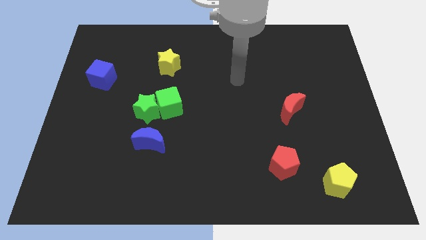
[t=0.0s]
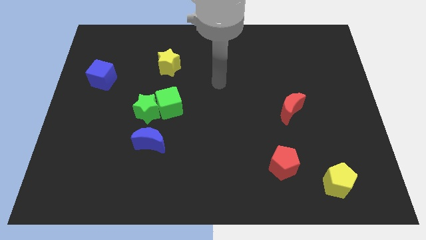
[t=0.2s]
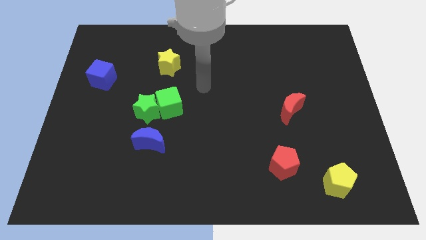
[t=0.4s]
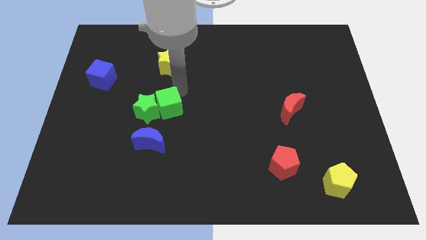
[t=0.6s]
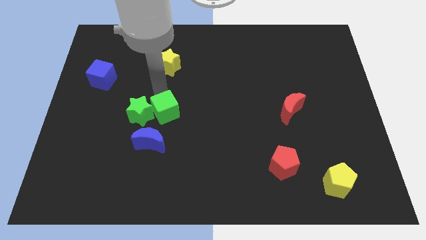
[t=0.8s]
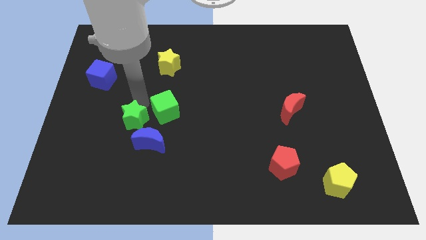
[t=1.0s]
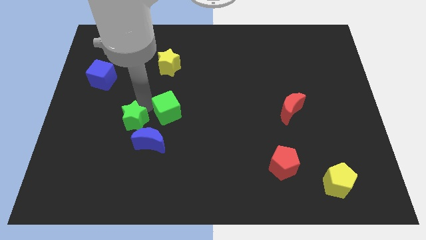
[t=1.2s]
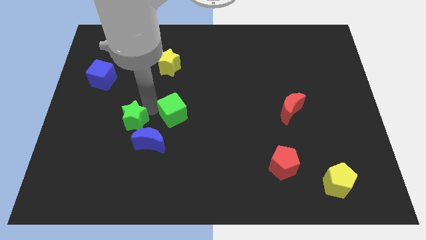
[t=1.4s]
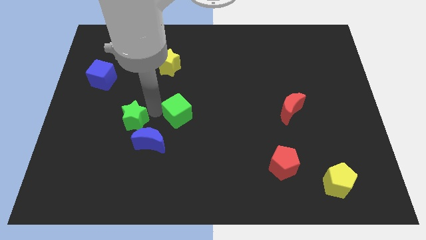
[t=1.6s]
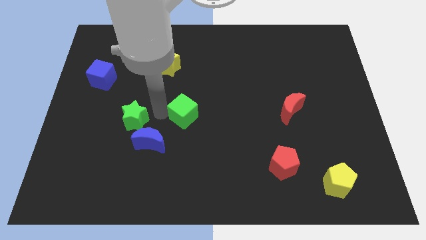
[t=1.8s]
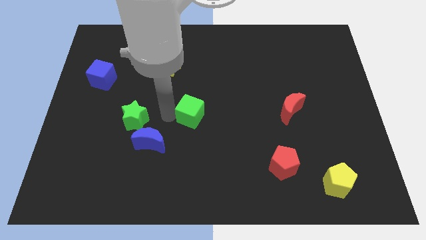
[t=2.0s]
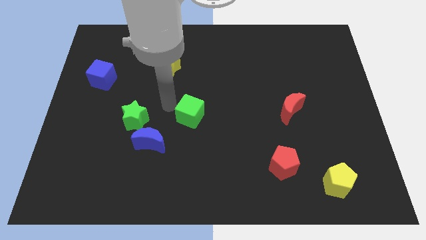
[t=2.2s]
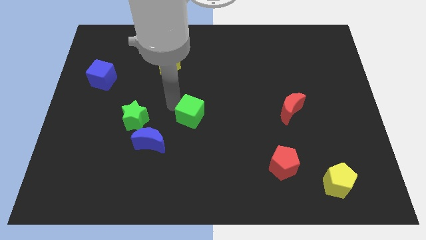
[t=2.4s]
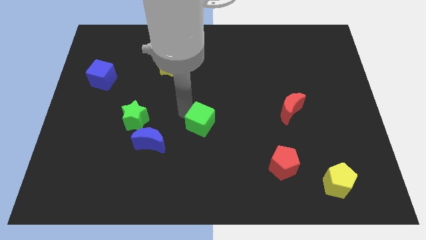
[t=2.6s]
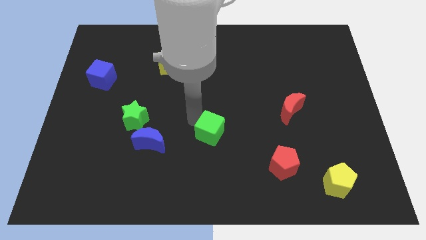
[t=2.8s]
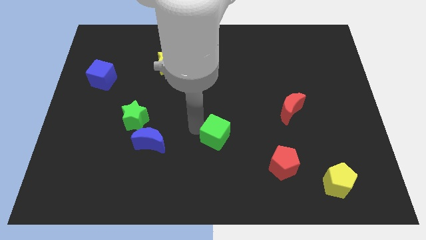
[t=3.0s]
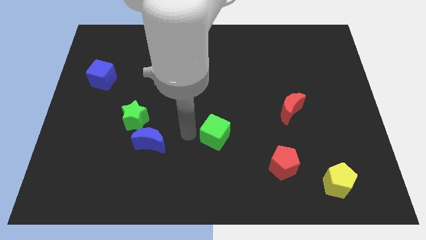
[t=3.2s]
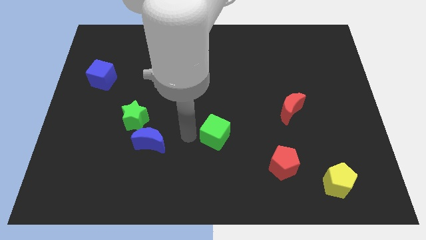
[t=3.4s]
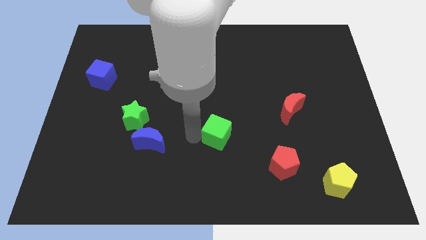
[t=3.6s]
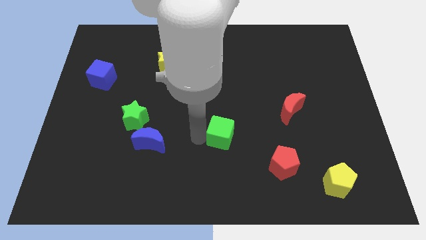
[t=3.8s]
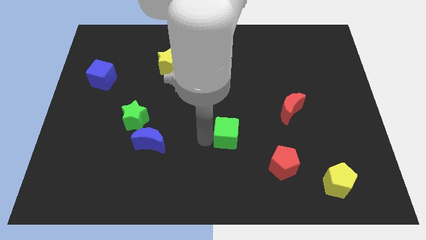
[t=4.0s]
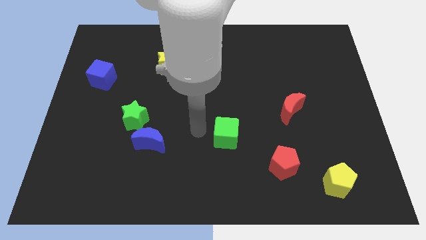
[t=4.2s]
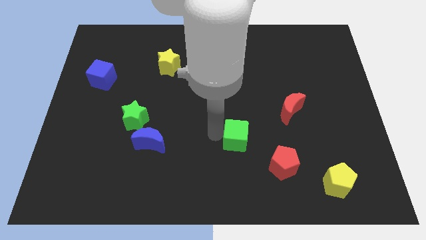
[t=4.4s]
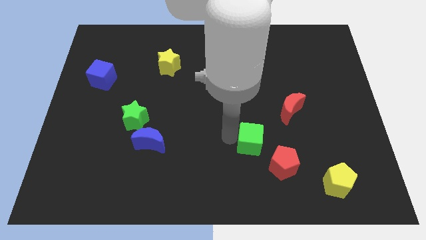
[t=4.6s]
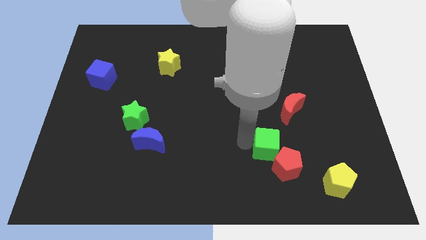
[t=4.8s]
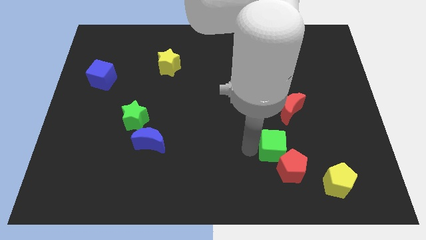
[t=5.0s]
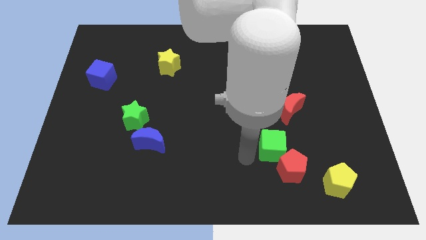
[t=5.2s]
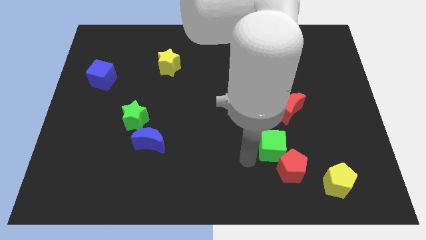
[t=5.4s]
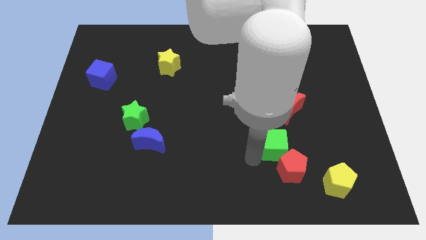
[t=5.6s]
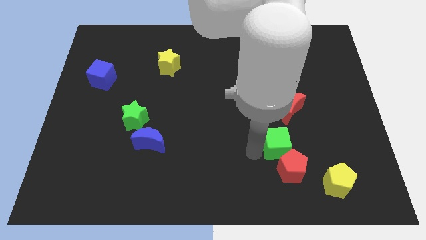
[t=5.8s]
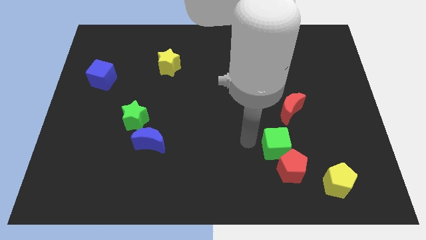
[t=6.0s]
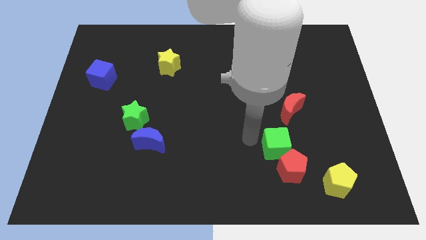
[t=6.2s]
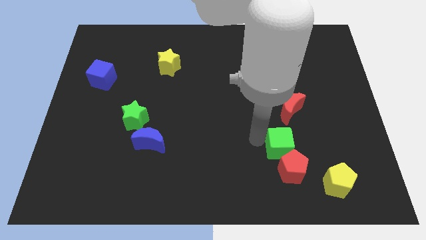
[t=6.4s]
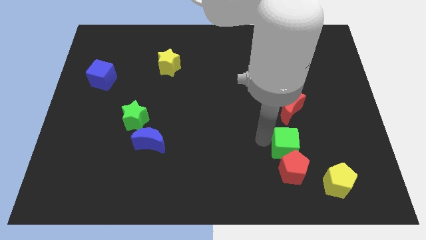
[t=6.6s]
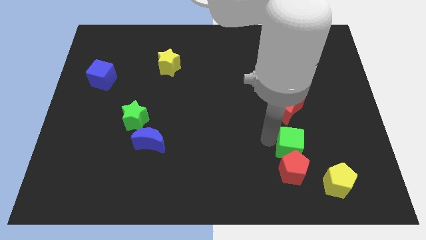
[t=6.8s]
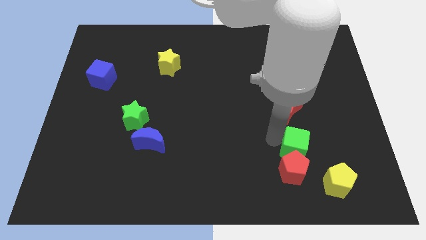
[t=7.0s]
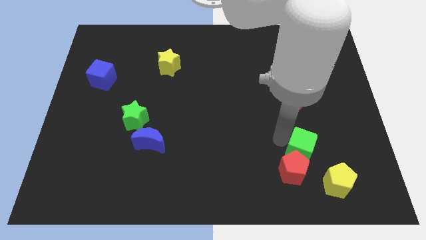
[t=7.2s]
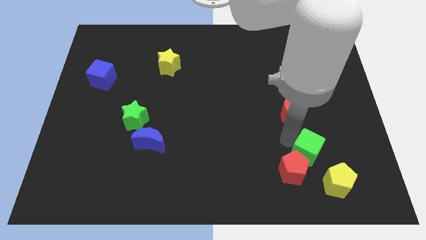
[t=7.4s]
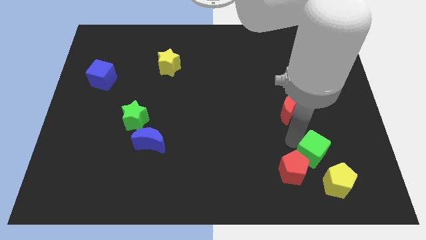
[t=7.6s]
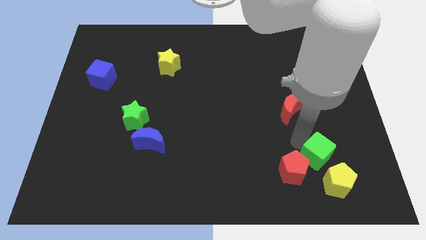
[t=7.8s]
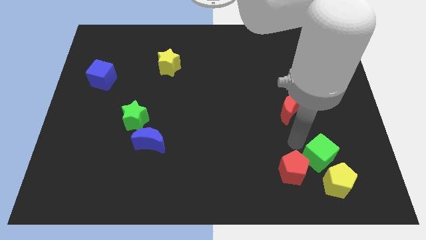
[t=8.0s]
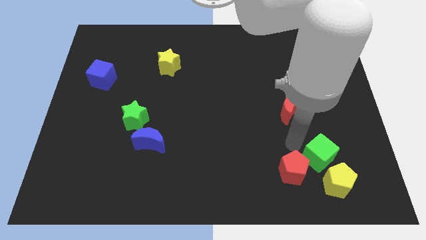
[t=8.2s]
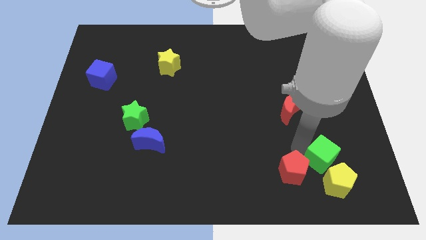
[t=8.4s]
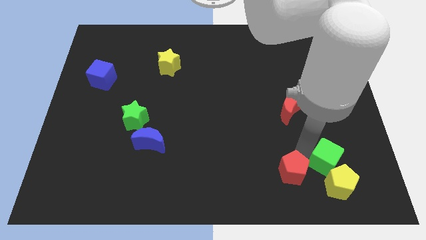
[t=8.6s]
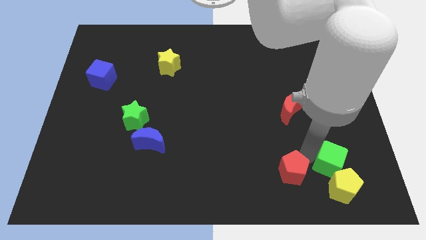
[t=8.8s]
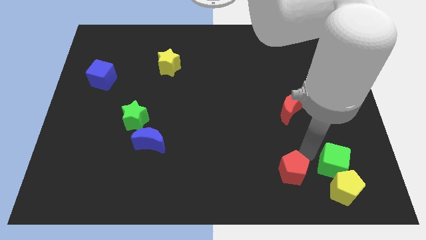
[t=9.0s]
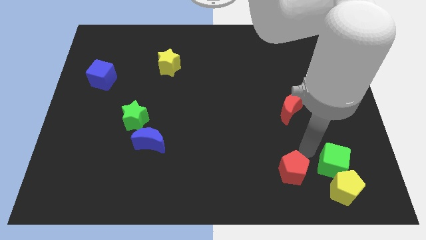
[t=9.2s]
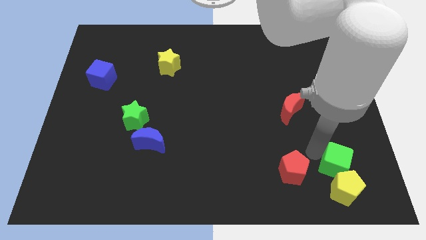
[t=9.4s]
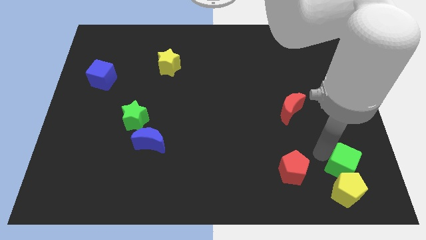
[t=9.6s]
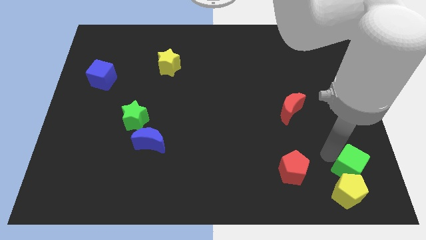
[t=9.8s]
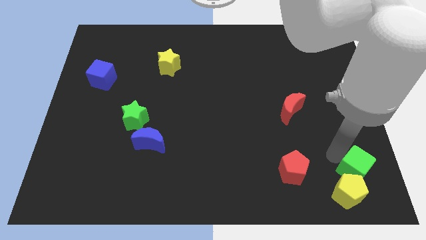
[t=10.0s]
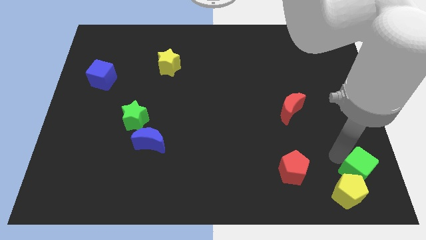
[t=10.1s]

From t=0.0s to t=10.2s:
slide the green cube to the bottom right of the board

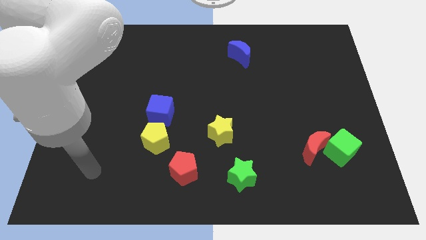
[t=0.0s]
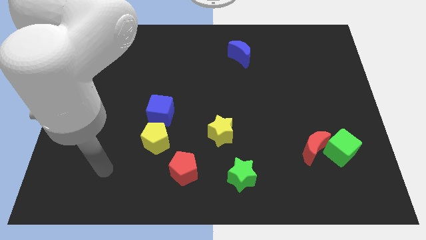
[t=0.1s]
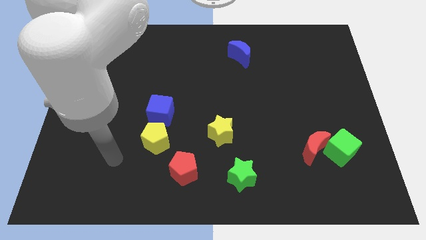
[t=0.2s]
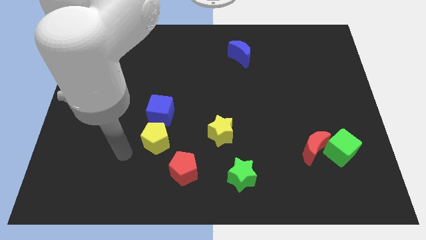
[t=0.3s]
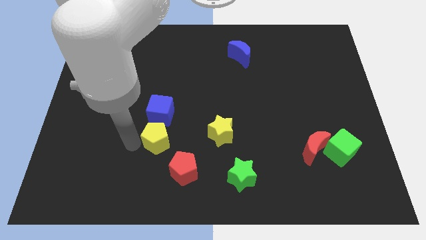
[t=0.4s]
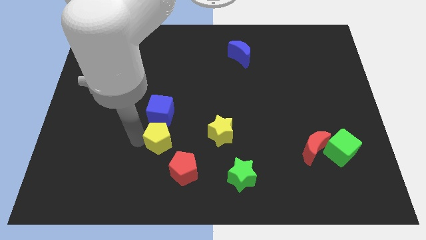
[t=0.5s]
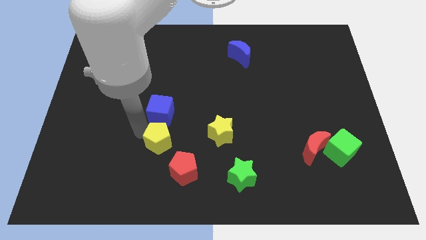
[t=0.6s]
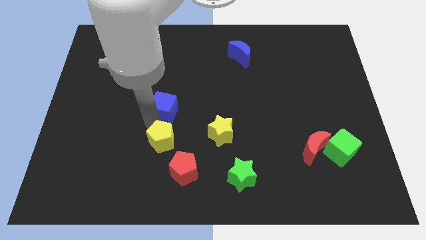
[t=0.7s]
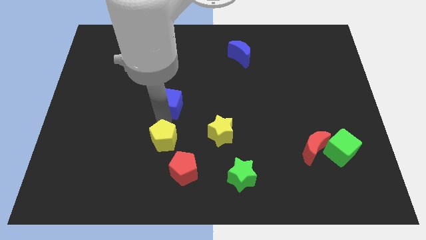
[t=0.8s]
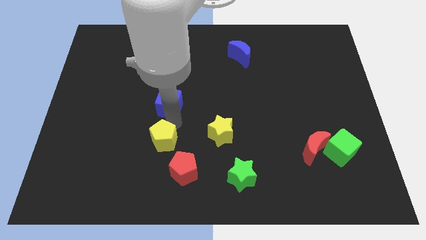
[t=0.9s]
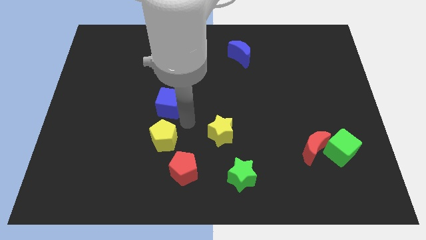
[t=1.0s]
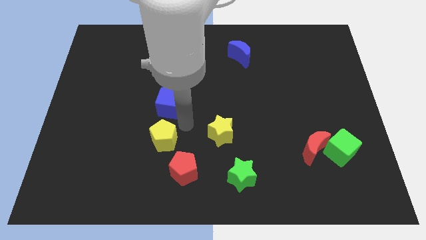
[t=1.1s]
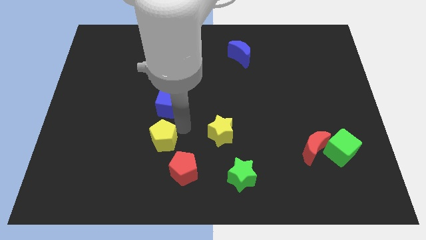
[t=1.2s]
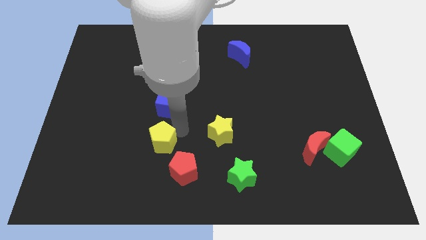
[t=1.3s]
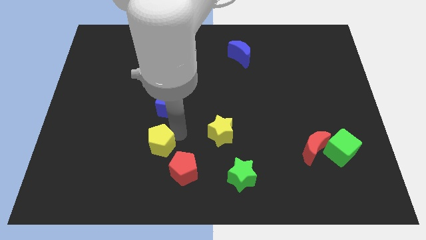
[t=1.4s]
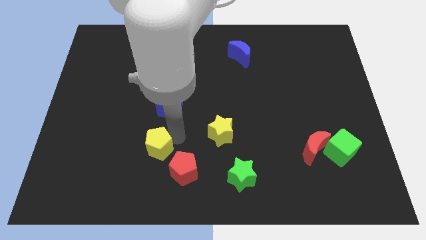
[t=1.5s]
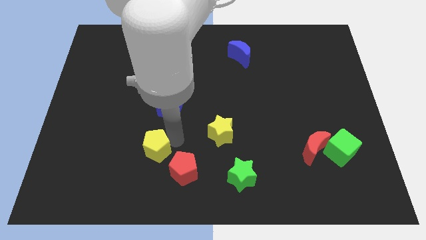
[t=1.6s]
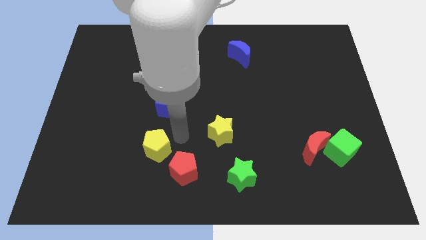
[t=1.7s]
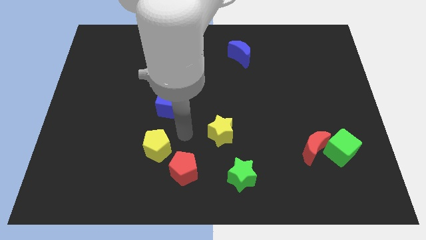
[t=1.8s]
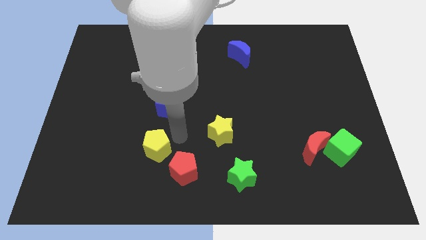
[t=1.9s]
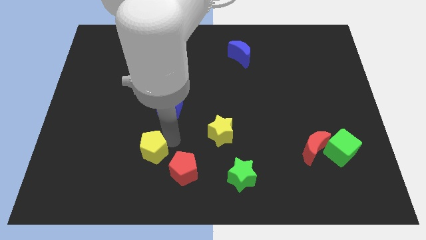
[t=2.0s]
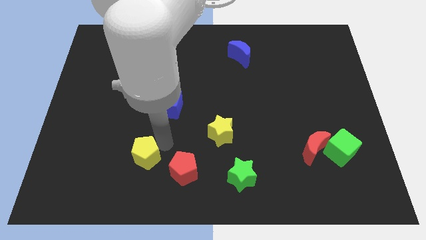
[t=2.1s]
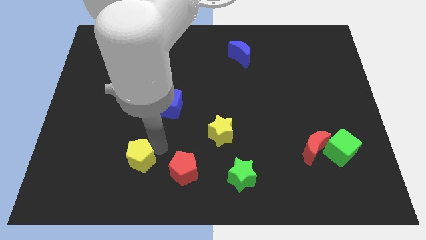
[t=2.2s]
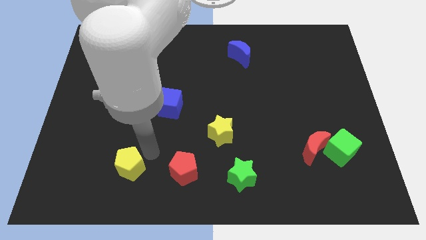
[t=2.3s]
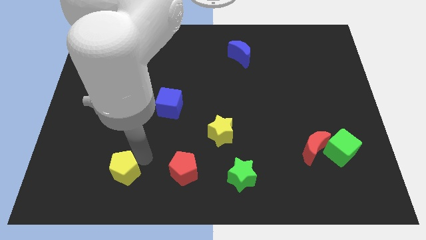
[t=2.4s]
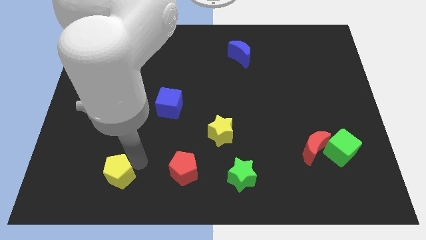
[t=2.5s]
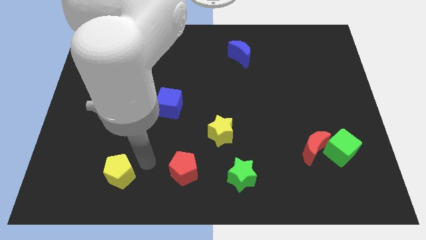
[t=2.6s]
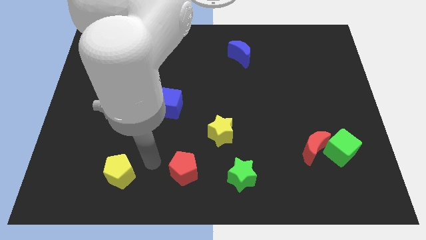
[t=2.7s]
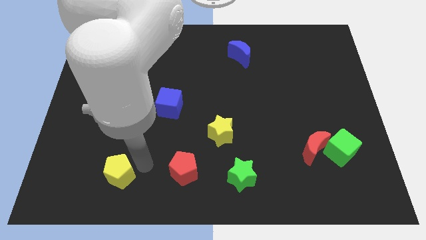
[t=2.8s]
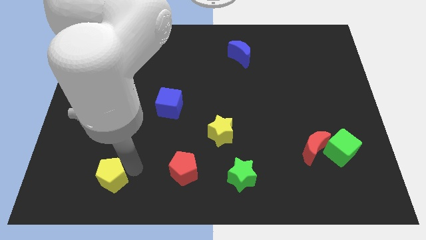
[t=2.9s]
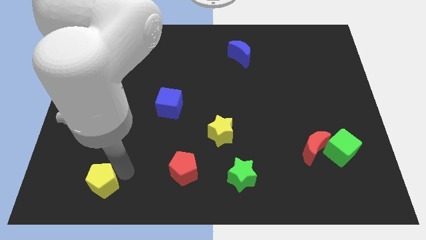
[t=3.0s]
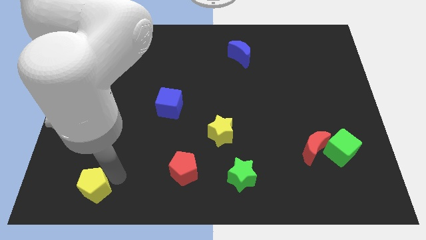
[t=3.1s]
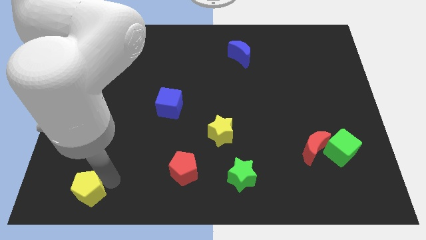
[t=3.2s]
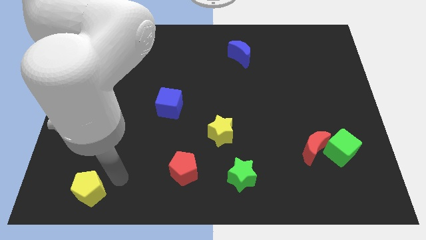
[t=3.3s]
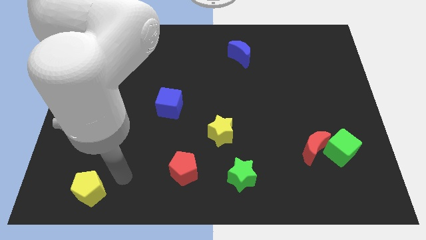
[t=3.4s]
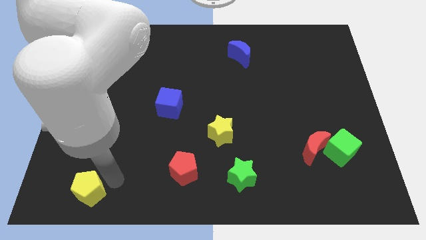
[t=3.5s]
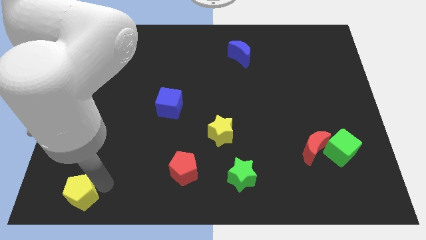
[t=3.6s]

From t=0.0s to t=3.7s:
slide the yellow pentagon to the bottom left corner
